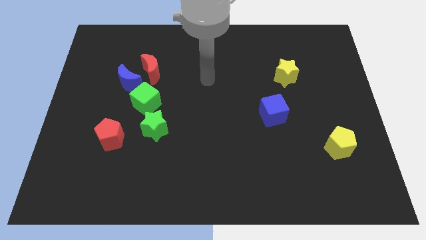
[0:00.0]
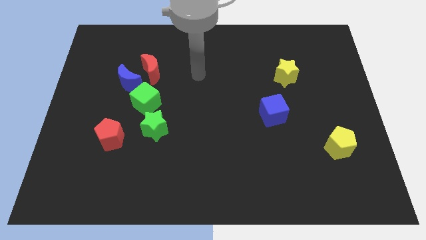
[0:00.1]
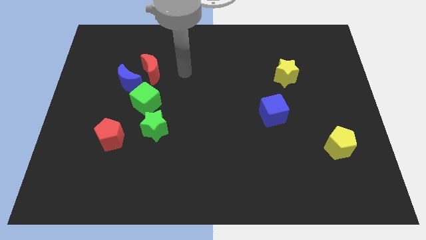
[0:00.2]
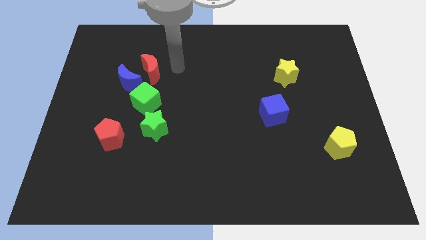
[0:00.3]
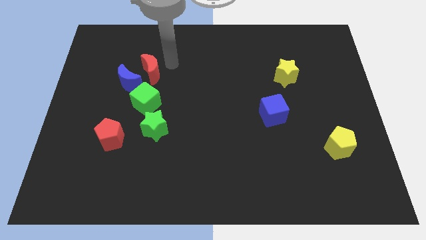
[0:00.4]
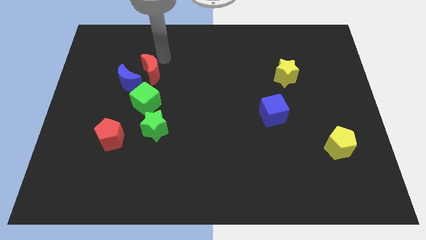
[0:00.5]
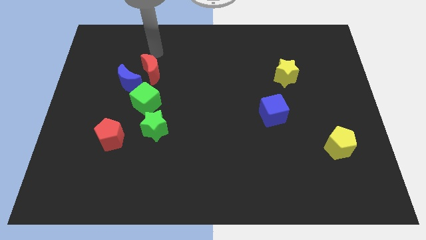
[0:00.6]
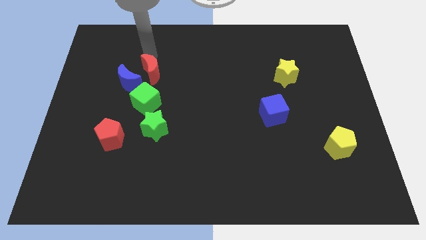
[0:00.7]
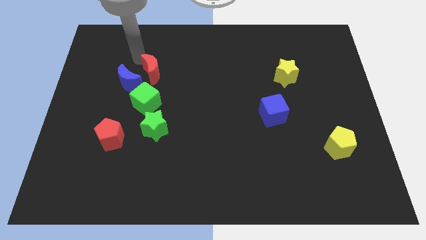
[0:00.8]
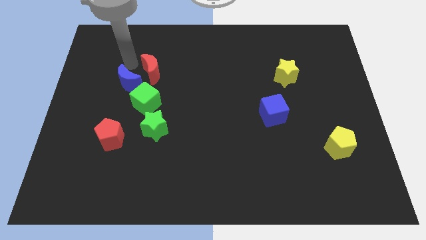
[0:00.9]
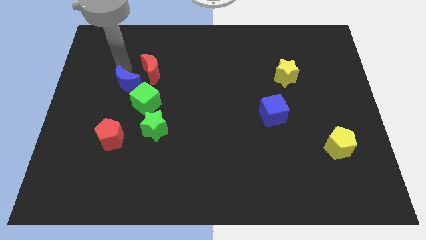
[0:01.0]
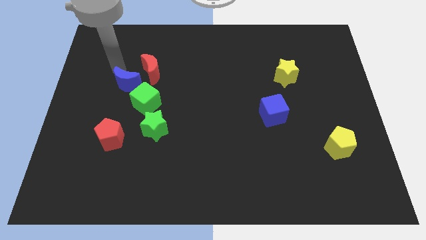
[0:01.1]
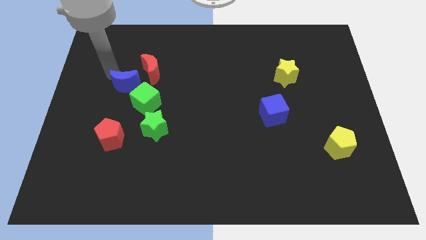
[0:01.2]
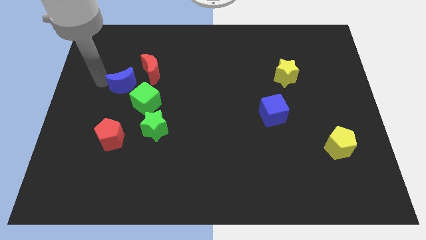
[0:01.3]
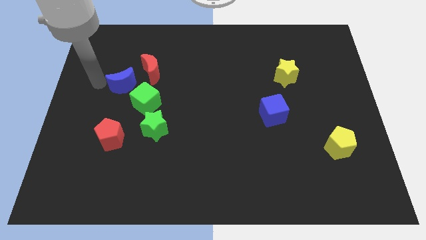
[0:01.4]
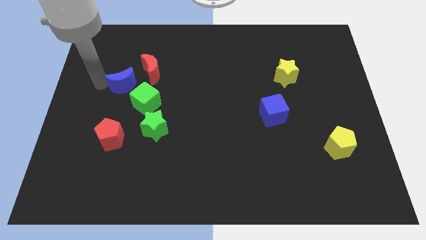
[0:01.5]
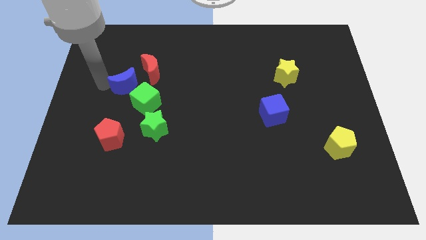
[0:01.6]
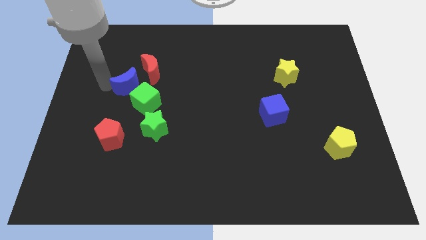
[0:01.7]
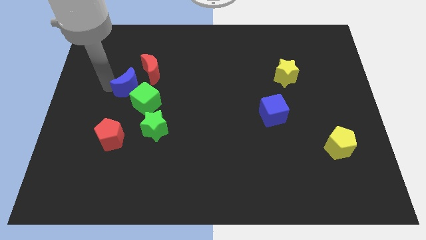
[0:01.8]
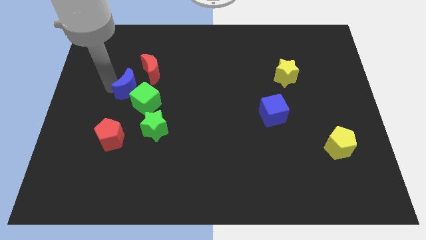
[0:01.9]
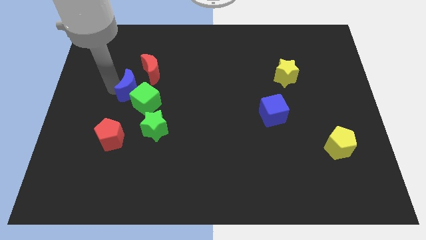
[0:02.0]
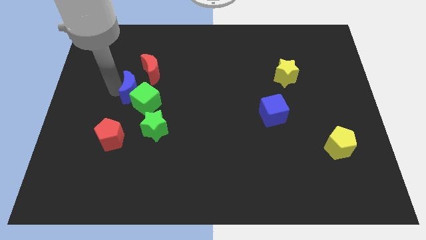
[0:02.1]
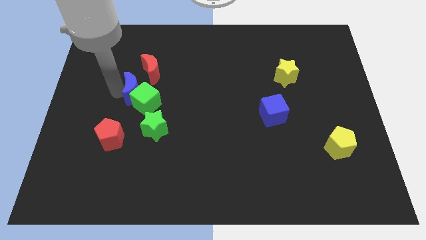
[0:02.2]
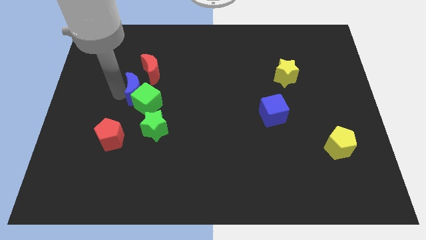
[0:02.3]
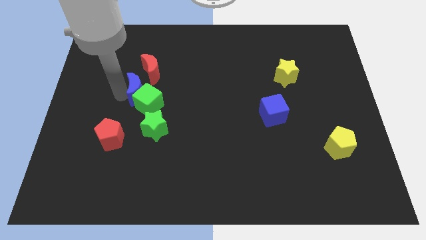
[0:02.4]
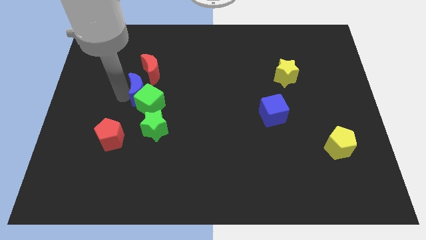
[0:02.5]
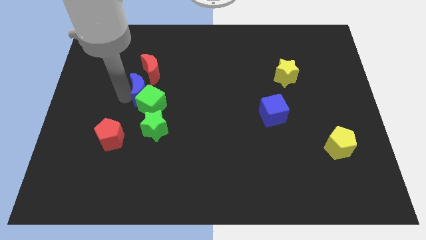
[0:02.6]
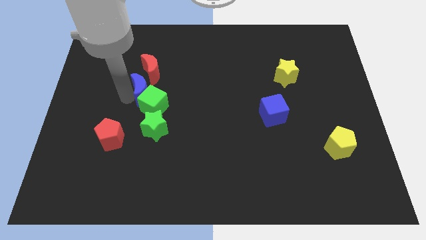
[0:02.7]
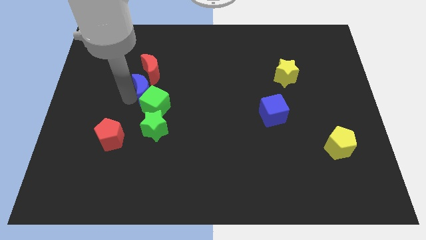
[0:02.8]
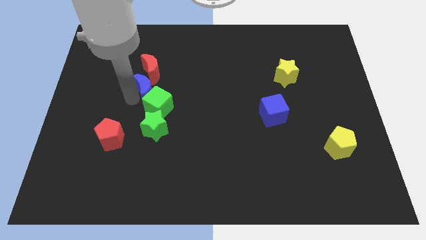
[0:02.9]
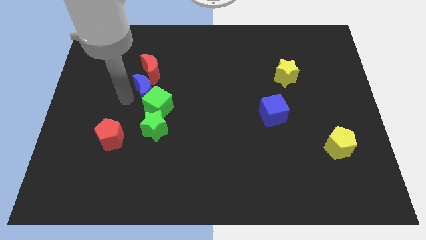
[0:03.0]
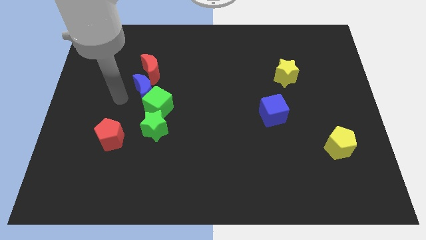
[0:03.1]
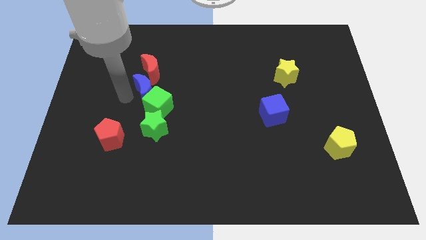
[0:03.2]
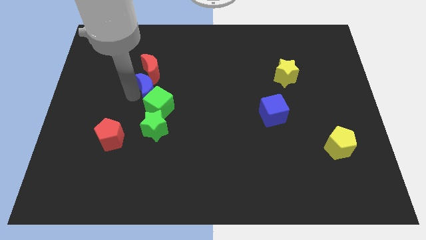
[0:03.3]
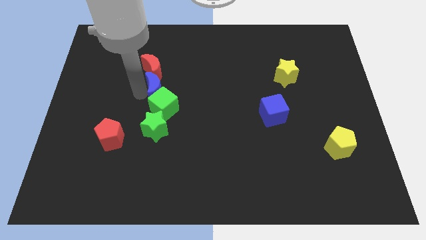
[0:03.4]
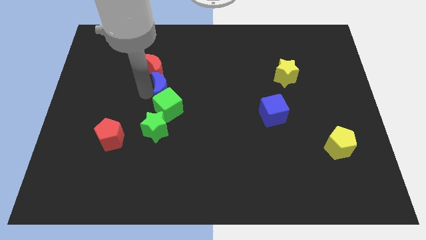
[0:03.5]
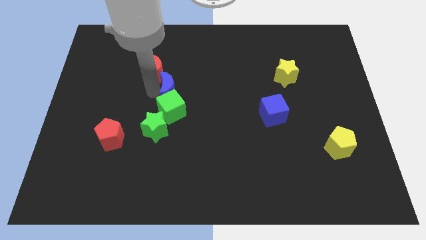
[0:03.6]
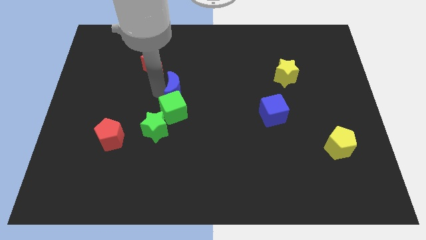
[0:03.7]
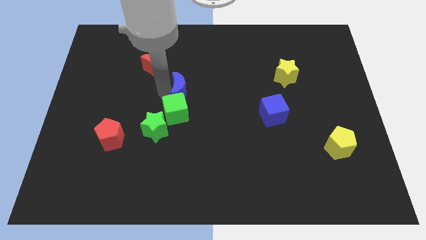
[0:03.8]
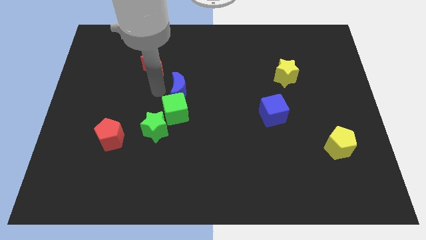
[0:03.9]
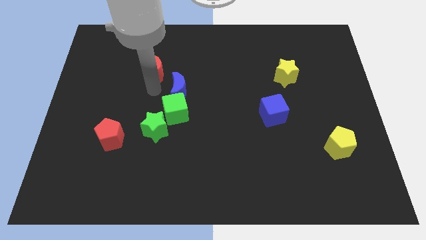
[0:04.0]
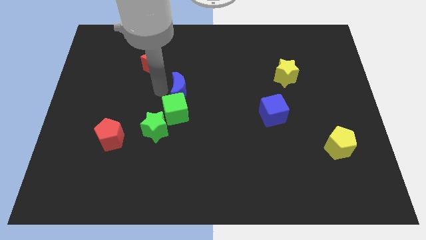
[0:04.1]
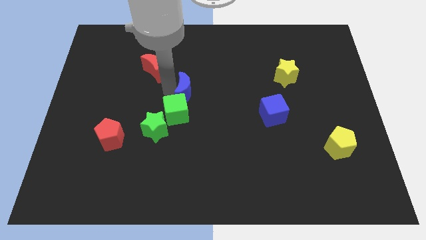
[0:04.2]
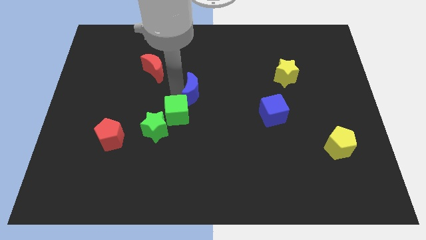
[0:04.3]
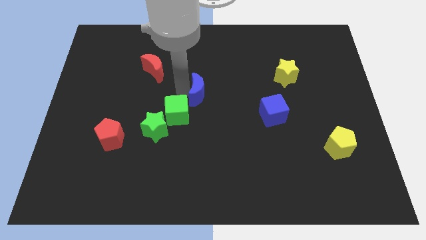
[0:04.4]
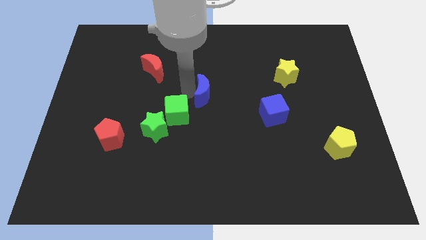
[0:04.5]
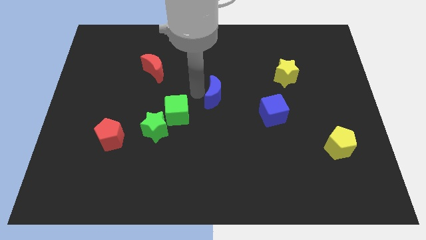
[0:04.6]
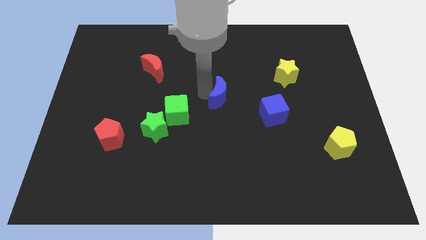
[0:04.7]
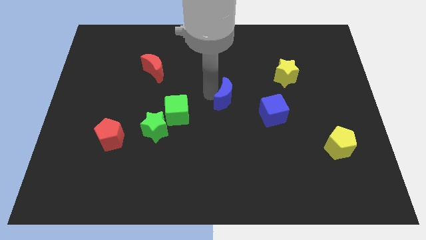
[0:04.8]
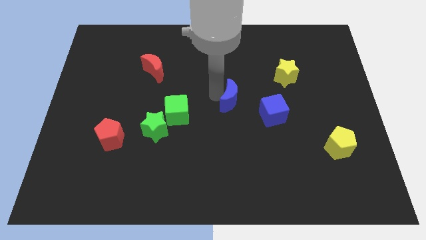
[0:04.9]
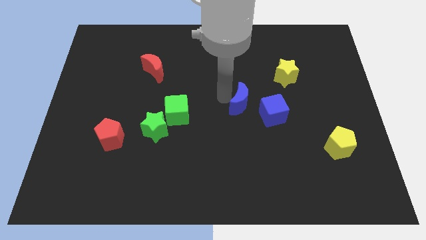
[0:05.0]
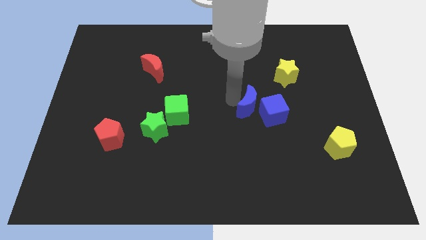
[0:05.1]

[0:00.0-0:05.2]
move the blue moon to the blue cube

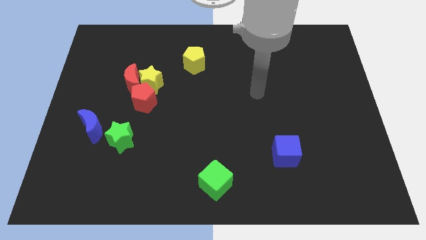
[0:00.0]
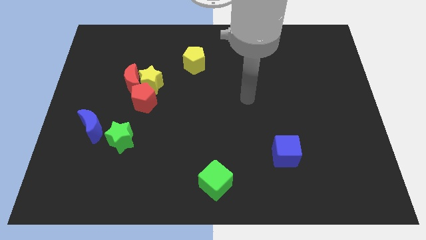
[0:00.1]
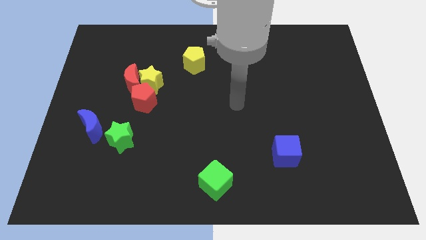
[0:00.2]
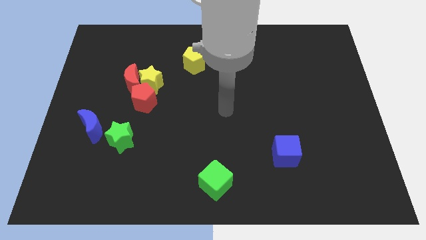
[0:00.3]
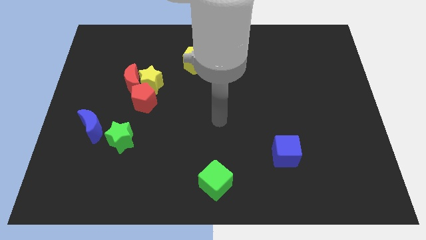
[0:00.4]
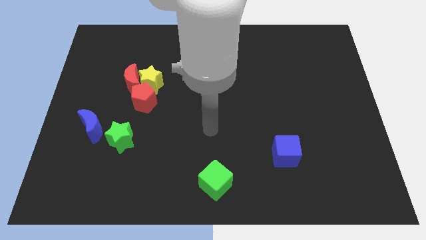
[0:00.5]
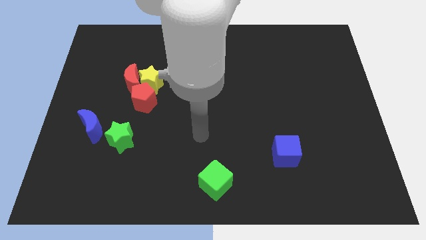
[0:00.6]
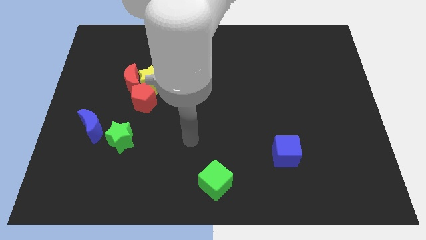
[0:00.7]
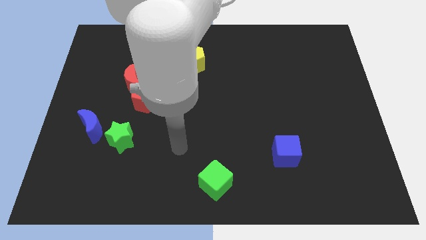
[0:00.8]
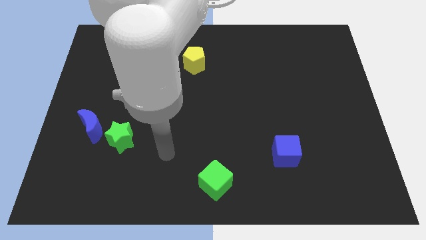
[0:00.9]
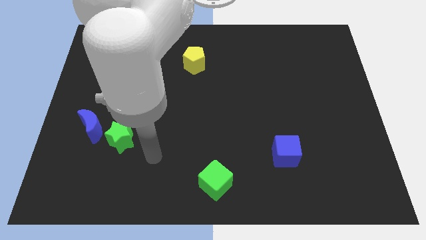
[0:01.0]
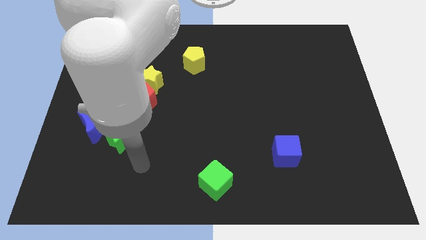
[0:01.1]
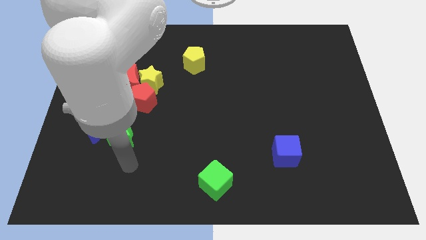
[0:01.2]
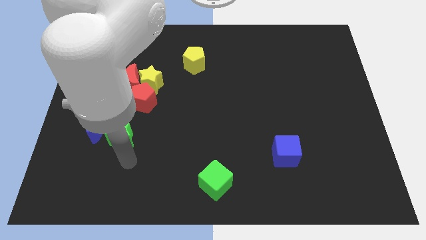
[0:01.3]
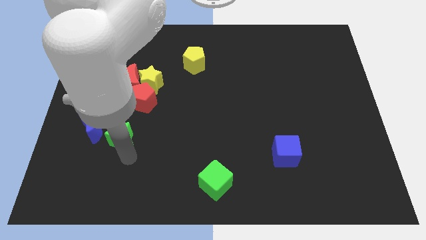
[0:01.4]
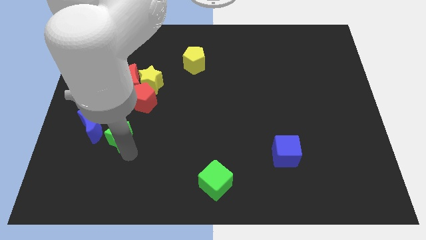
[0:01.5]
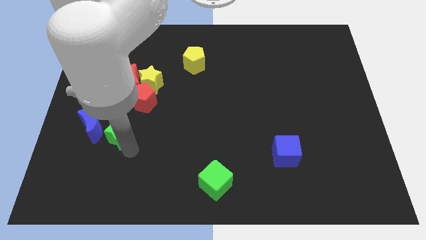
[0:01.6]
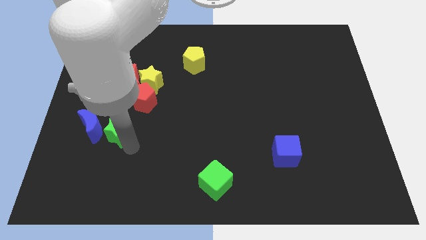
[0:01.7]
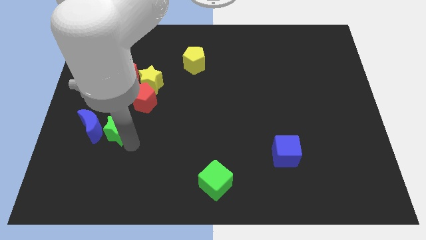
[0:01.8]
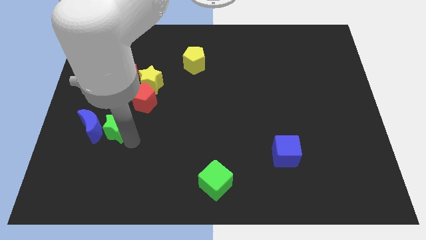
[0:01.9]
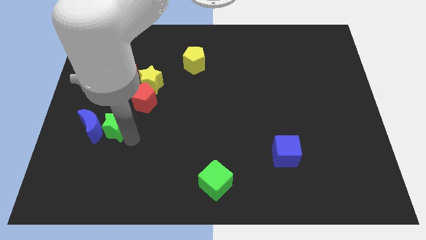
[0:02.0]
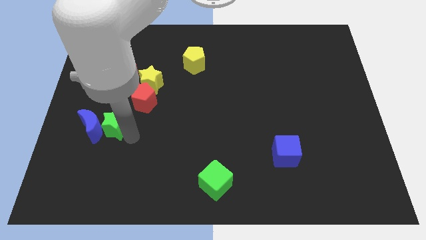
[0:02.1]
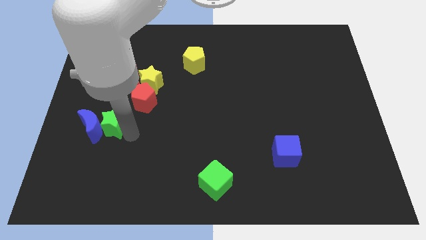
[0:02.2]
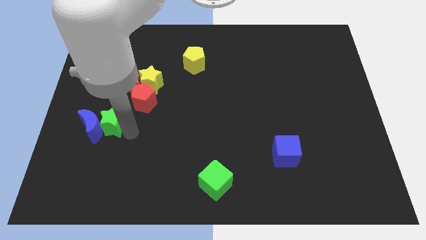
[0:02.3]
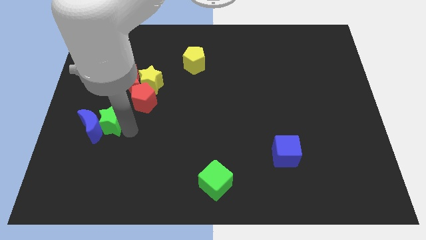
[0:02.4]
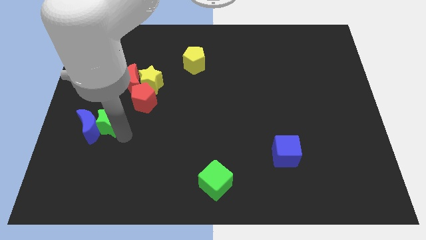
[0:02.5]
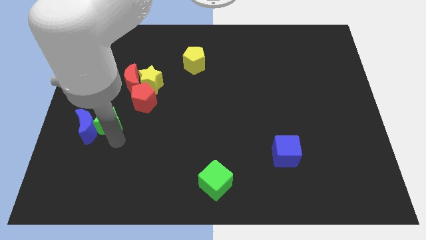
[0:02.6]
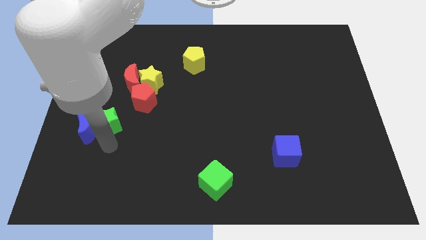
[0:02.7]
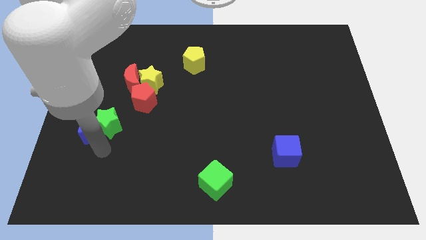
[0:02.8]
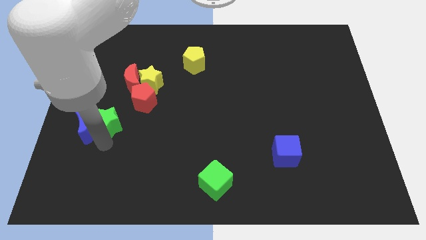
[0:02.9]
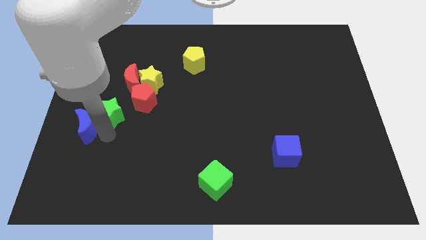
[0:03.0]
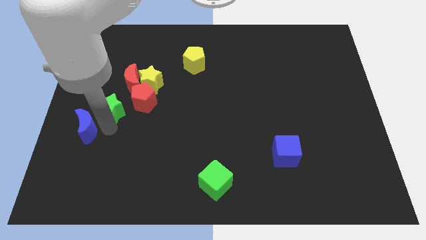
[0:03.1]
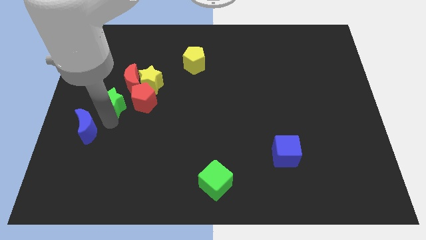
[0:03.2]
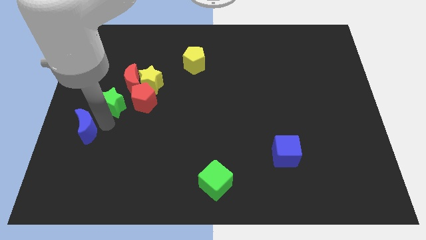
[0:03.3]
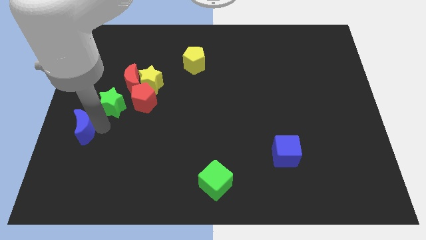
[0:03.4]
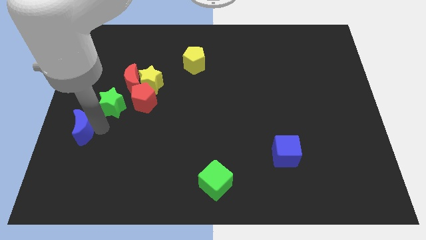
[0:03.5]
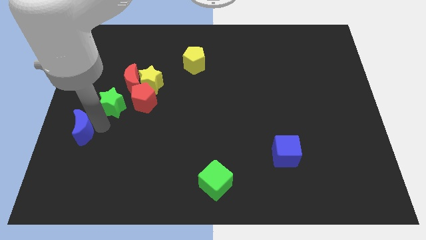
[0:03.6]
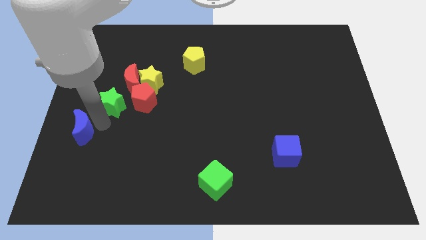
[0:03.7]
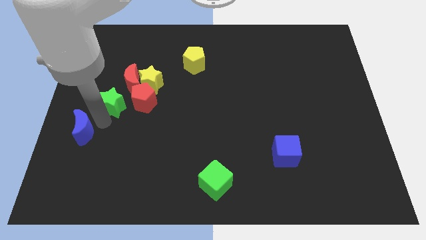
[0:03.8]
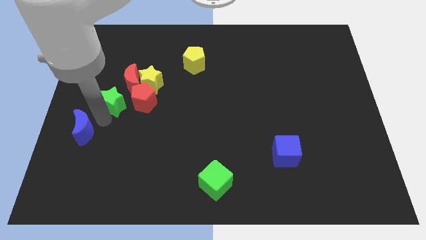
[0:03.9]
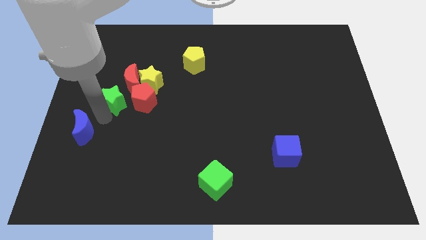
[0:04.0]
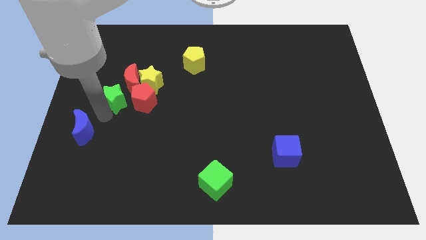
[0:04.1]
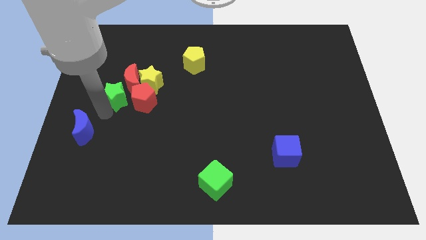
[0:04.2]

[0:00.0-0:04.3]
push the green star to the red moon
